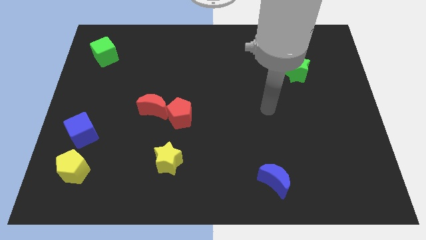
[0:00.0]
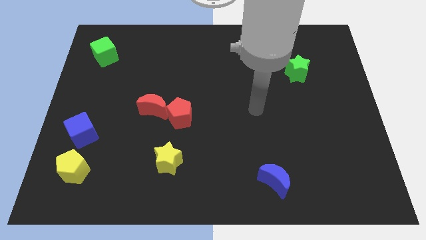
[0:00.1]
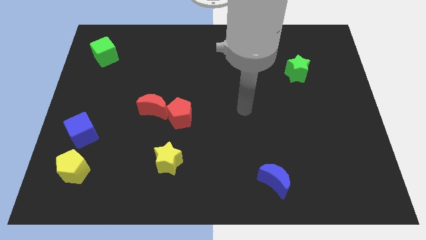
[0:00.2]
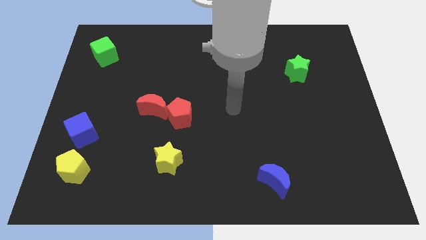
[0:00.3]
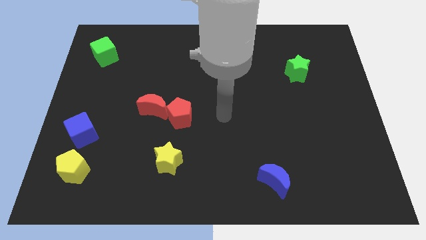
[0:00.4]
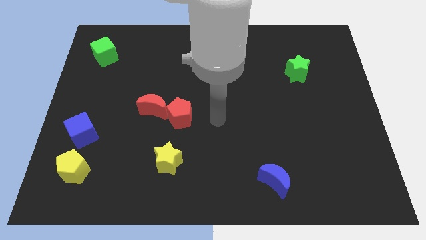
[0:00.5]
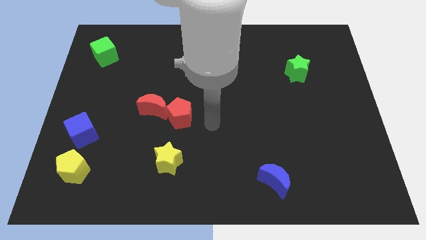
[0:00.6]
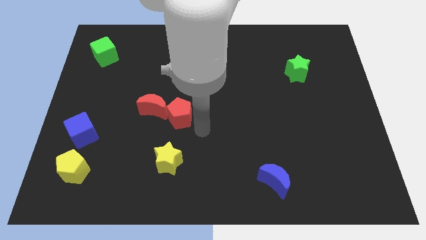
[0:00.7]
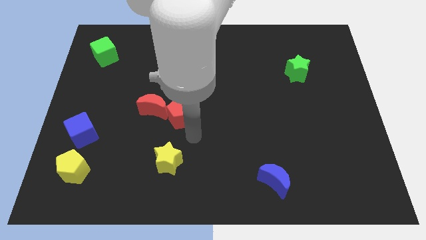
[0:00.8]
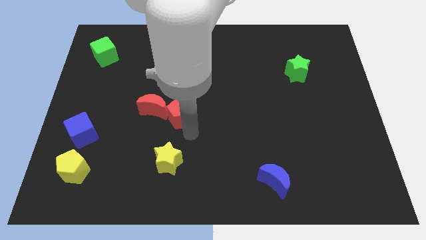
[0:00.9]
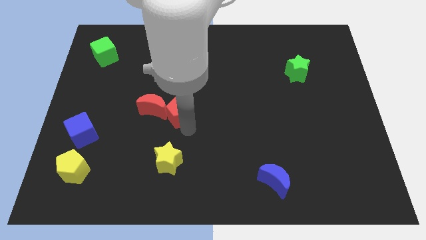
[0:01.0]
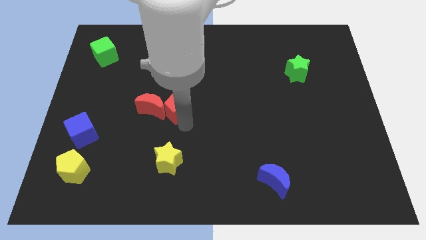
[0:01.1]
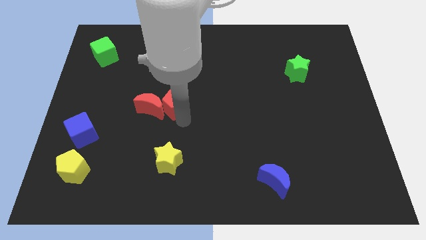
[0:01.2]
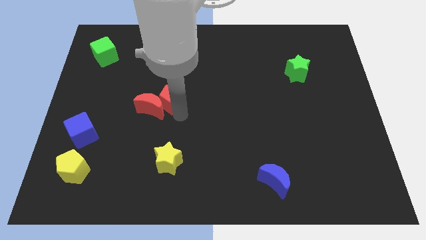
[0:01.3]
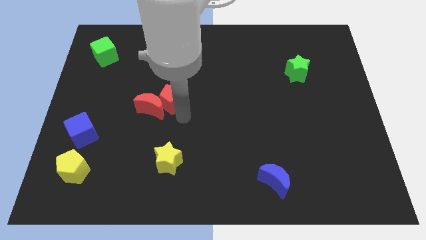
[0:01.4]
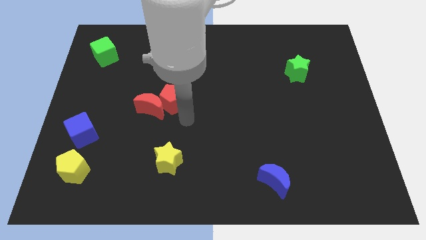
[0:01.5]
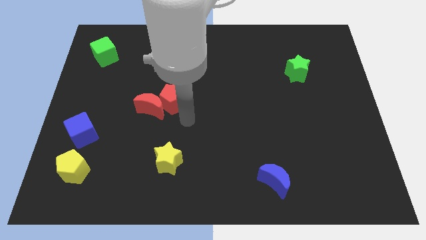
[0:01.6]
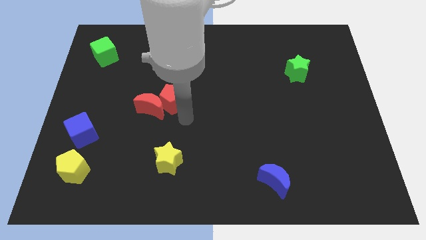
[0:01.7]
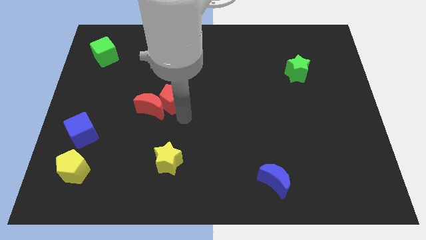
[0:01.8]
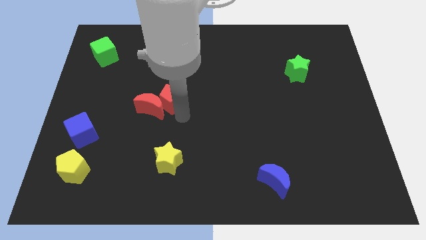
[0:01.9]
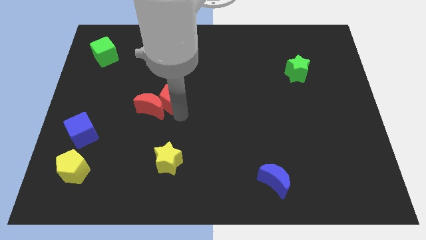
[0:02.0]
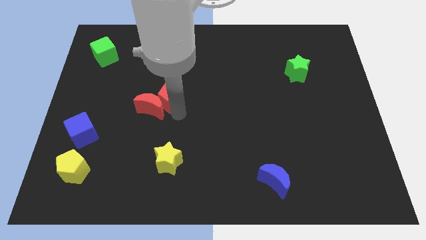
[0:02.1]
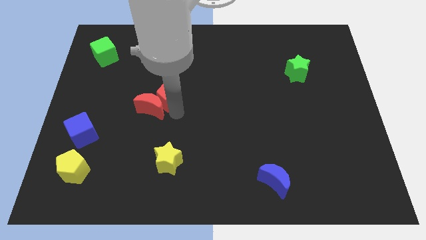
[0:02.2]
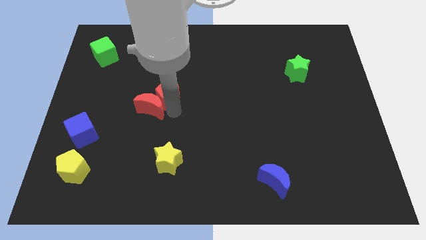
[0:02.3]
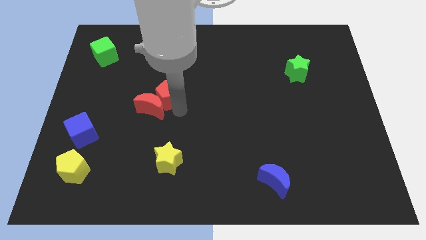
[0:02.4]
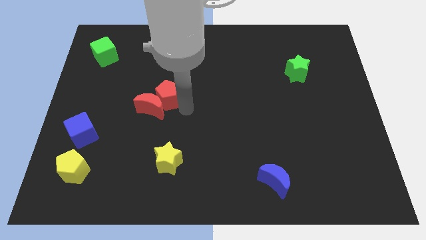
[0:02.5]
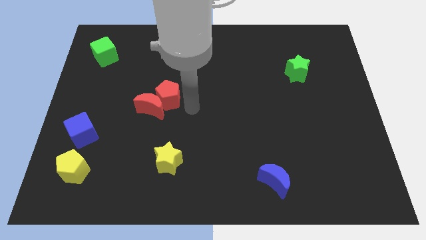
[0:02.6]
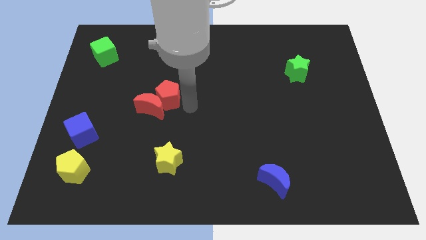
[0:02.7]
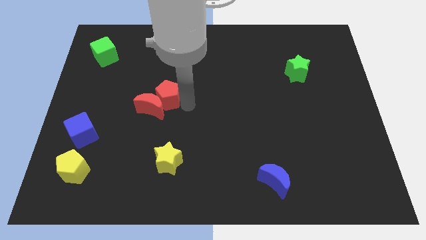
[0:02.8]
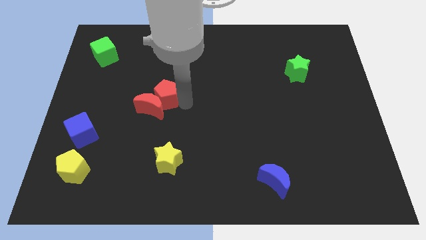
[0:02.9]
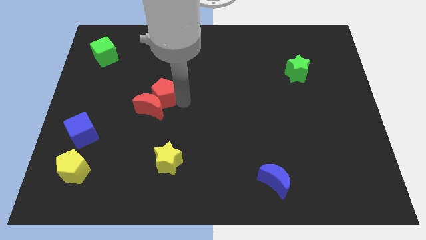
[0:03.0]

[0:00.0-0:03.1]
slide the red pentagon a little bit upwards and left

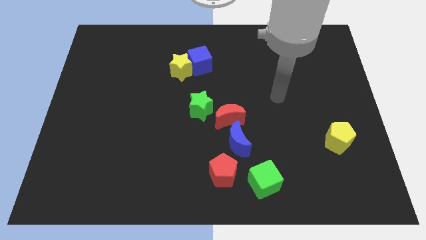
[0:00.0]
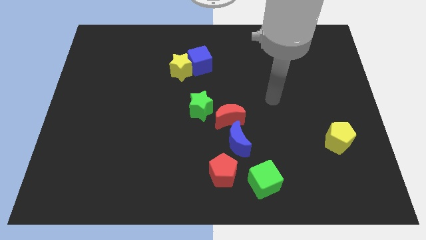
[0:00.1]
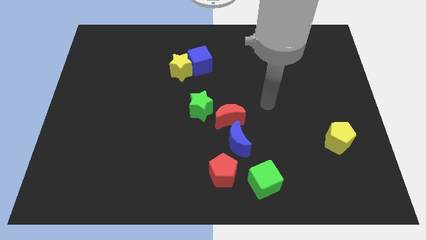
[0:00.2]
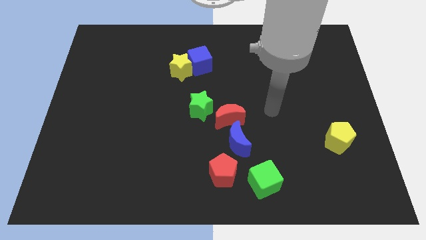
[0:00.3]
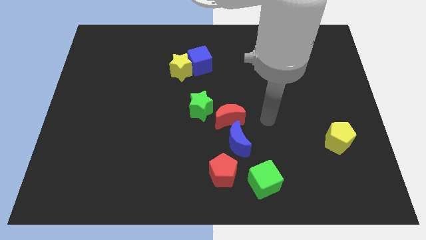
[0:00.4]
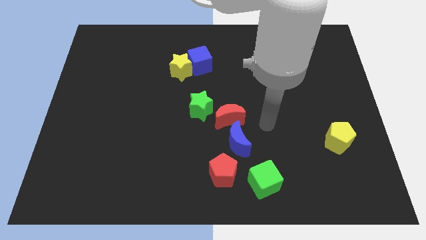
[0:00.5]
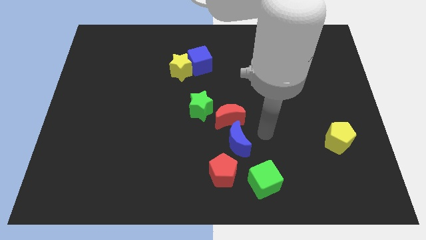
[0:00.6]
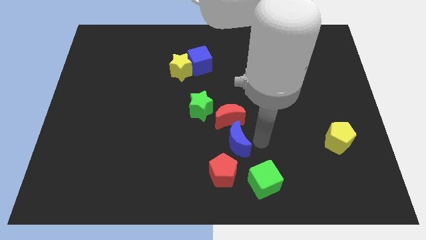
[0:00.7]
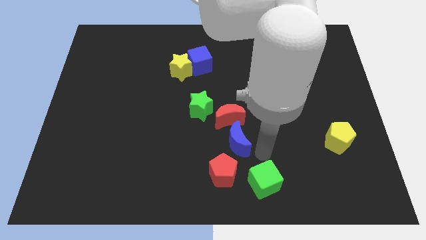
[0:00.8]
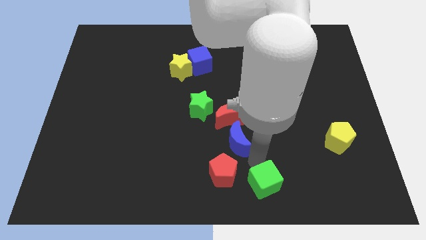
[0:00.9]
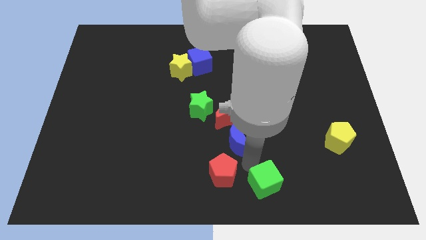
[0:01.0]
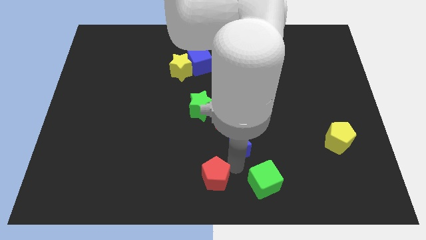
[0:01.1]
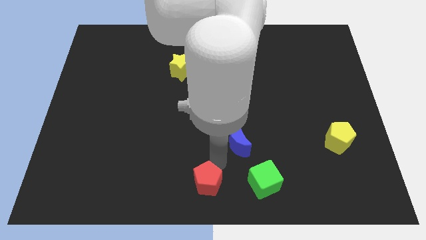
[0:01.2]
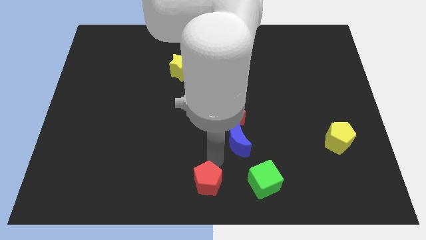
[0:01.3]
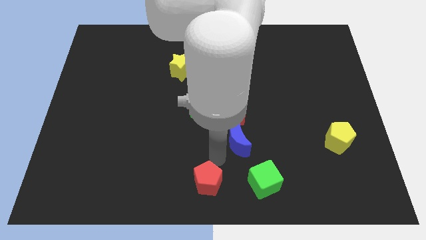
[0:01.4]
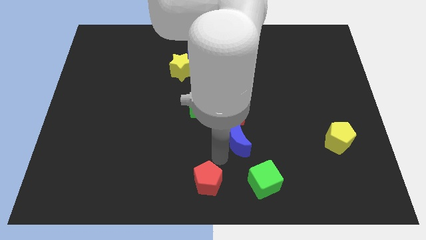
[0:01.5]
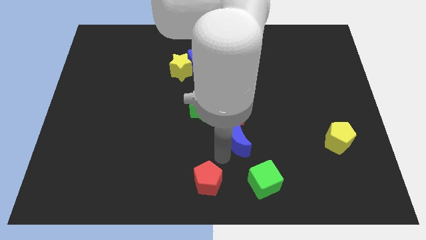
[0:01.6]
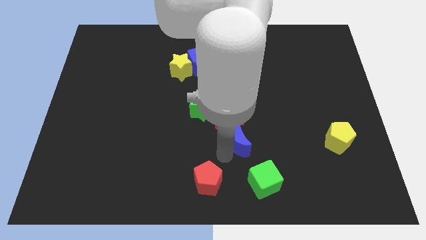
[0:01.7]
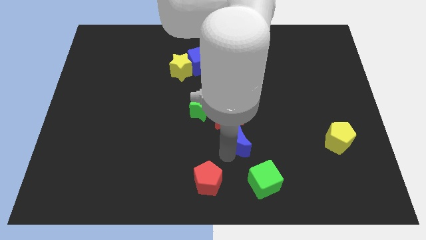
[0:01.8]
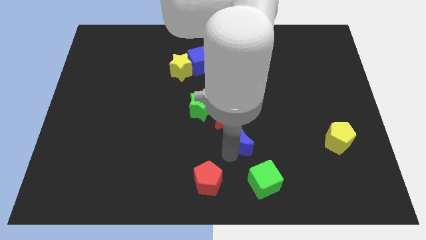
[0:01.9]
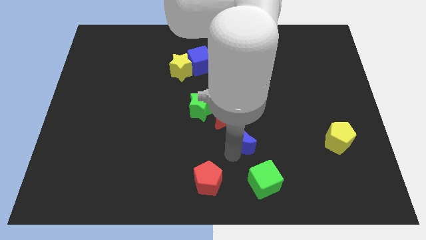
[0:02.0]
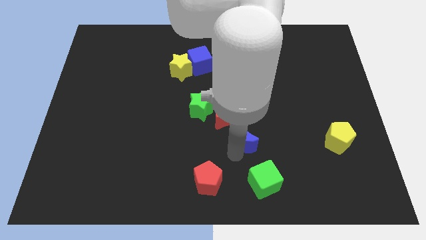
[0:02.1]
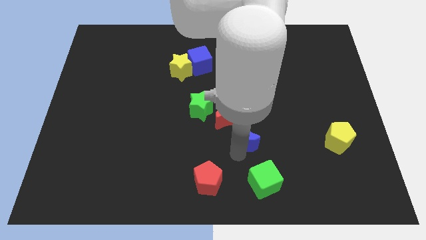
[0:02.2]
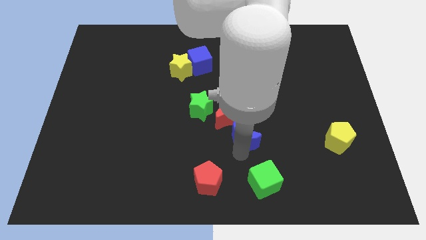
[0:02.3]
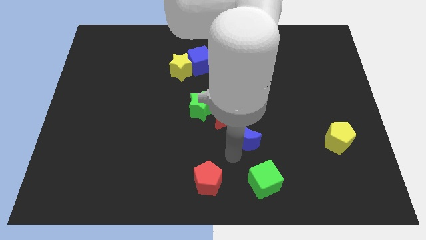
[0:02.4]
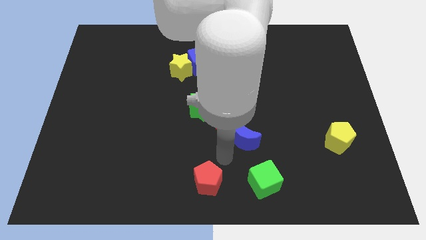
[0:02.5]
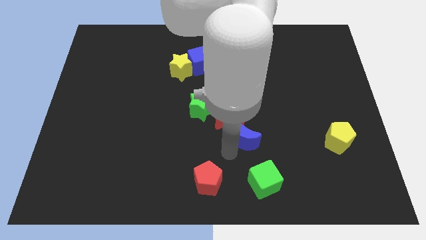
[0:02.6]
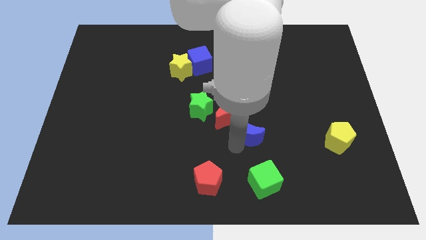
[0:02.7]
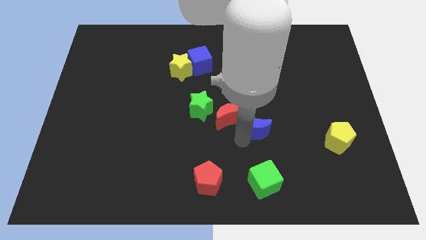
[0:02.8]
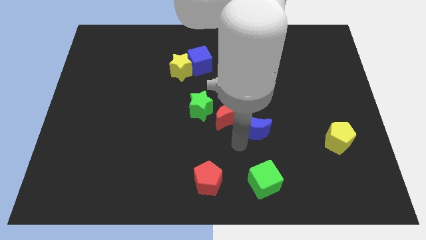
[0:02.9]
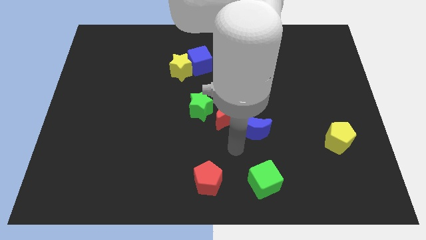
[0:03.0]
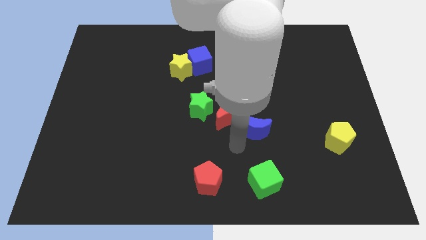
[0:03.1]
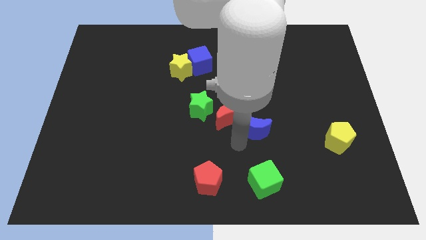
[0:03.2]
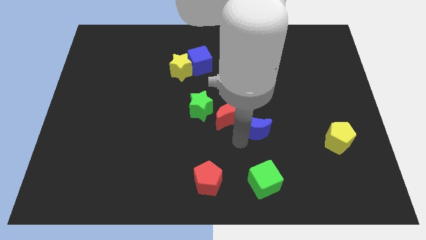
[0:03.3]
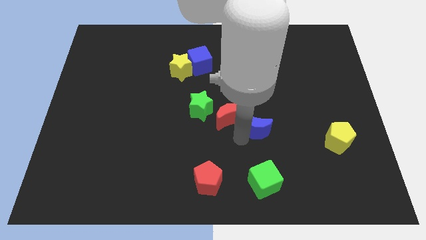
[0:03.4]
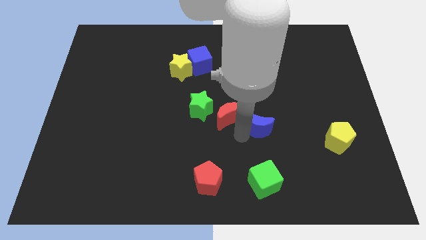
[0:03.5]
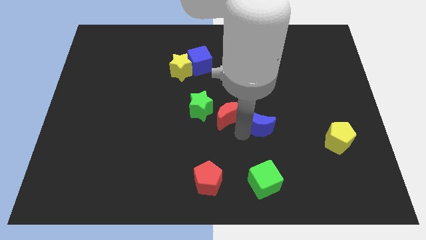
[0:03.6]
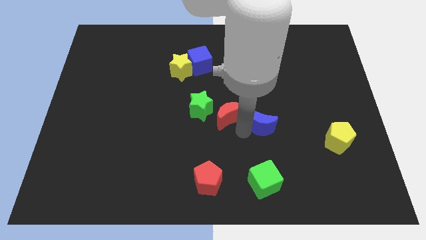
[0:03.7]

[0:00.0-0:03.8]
slightly slide the blue moon up and right diagonally

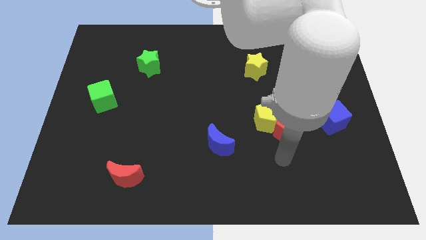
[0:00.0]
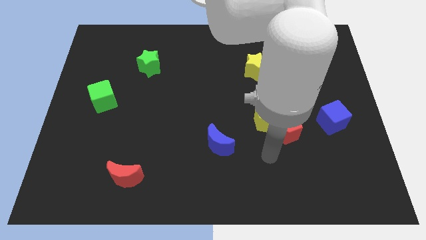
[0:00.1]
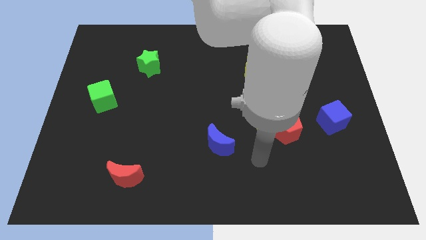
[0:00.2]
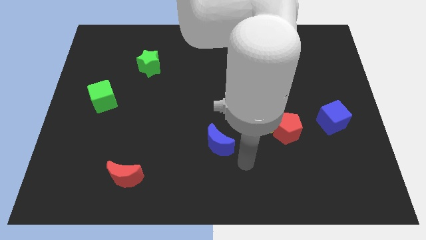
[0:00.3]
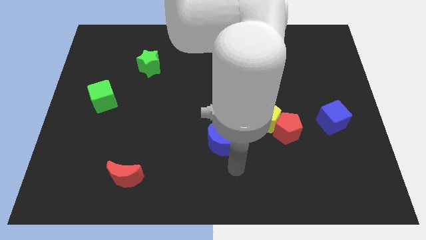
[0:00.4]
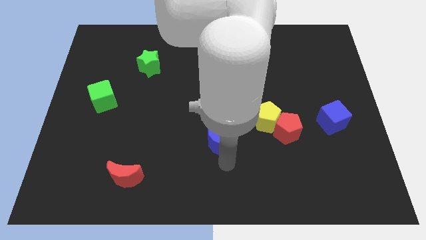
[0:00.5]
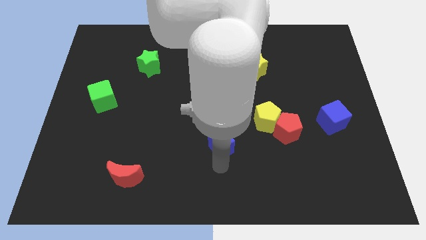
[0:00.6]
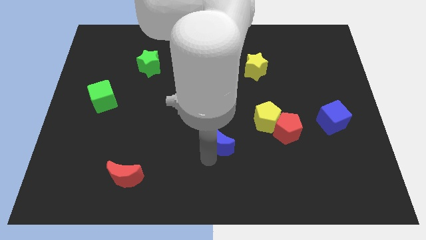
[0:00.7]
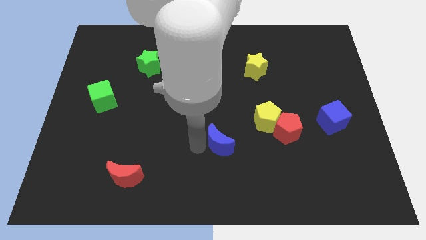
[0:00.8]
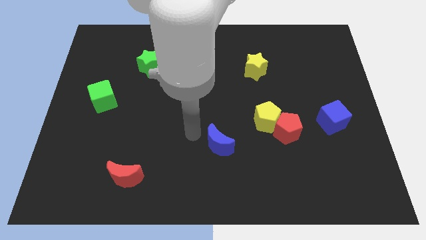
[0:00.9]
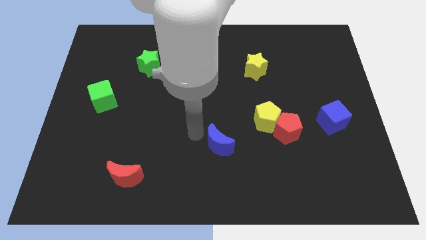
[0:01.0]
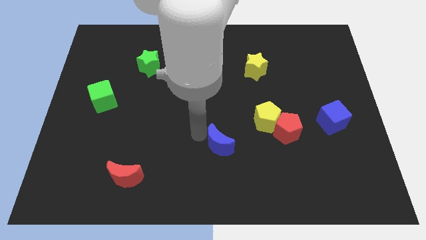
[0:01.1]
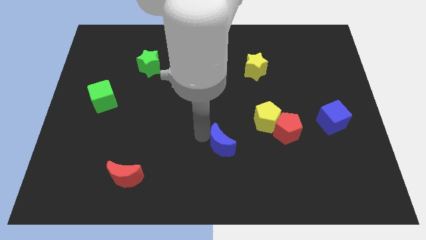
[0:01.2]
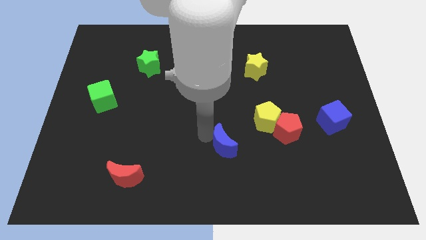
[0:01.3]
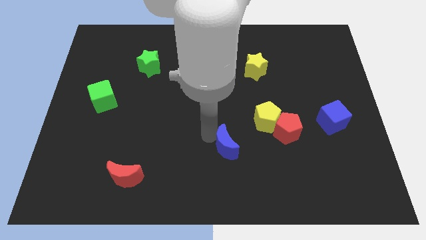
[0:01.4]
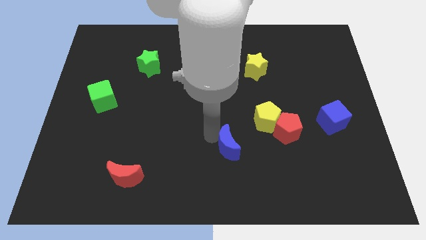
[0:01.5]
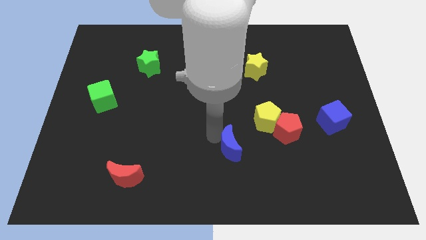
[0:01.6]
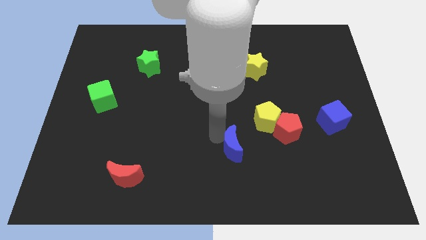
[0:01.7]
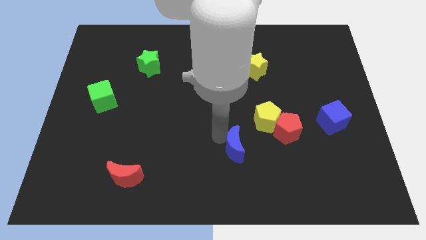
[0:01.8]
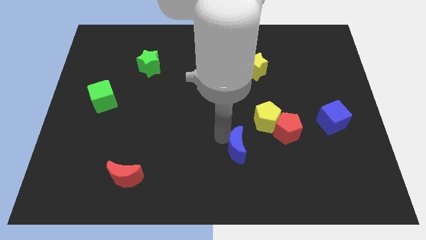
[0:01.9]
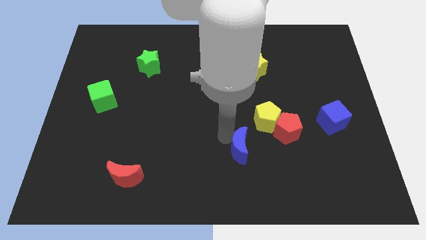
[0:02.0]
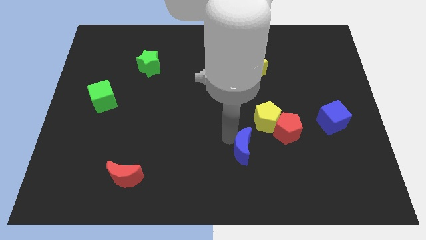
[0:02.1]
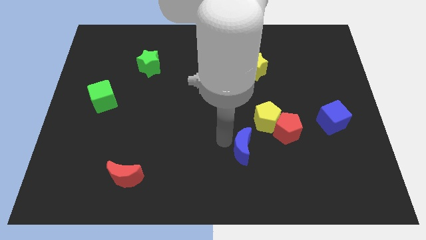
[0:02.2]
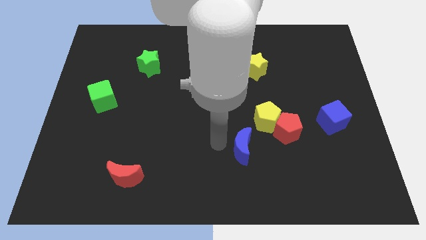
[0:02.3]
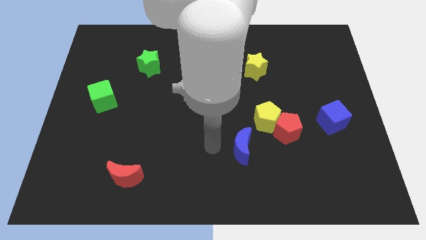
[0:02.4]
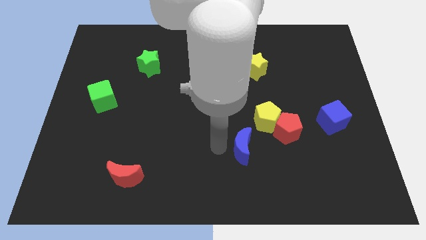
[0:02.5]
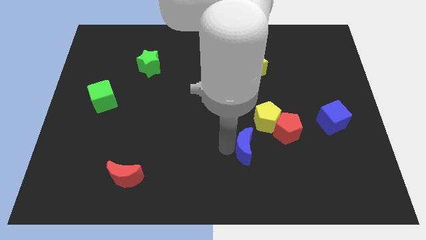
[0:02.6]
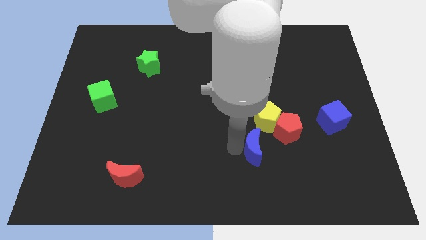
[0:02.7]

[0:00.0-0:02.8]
move the blue moon slightly to the right
